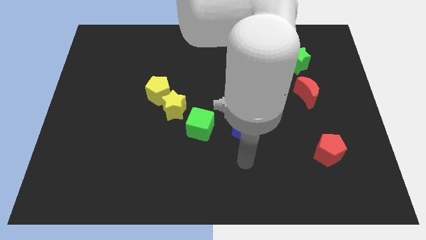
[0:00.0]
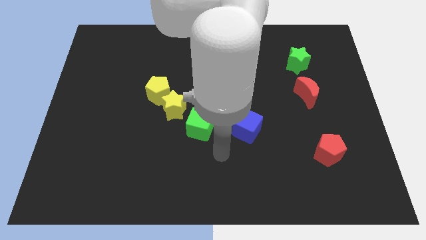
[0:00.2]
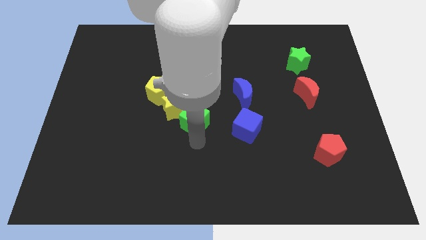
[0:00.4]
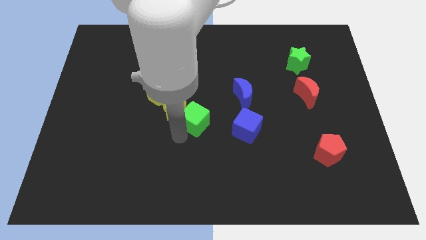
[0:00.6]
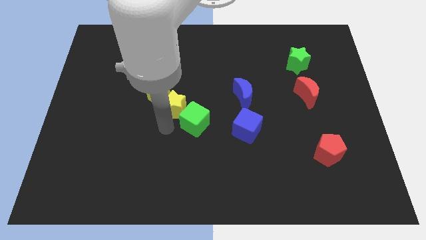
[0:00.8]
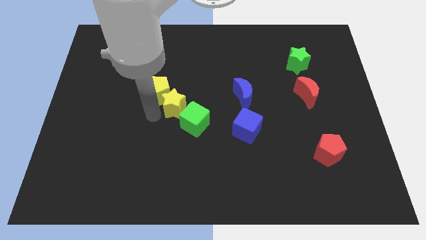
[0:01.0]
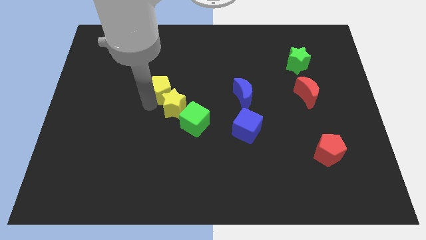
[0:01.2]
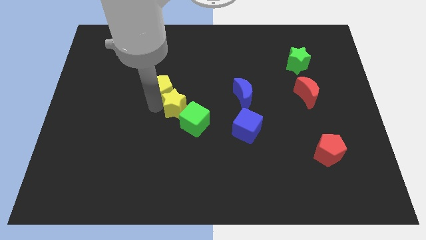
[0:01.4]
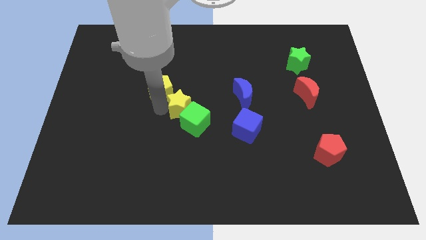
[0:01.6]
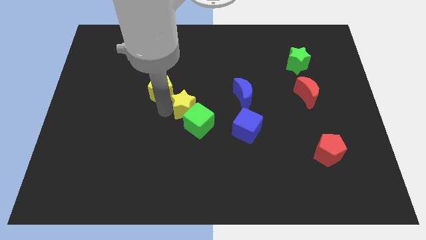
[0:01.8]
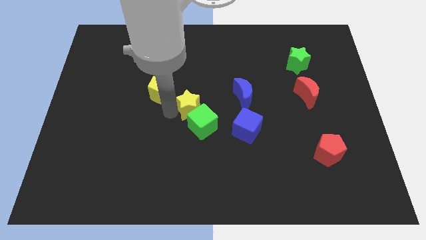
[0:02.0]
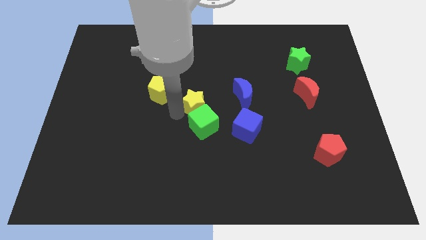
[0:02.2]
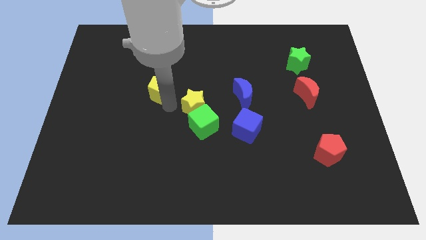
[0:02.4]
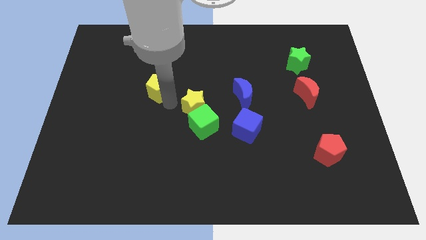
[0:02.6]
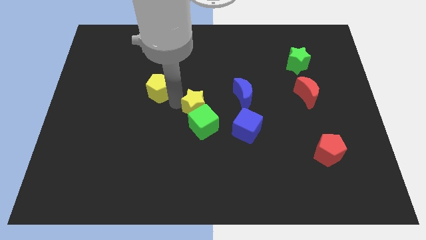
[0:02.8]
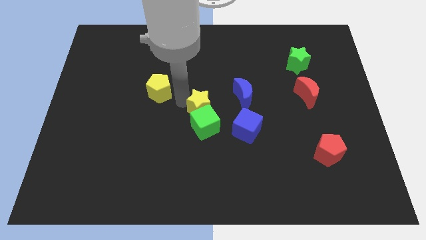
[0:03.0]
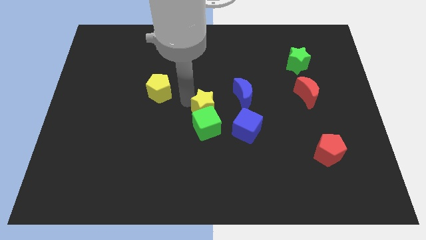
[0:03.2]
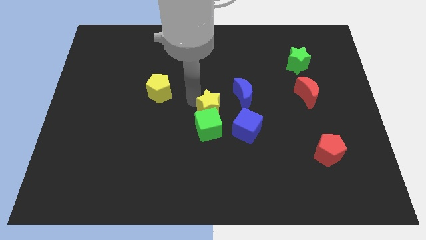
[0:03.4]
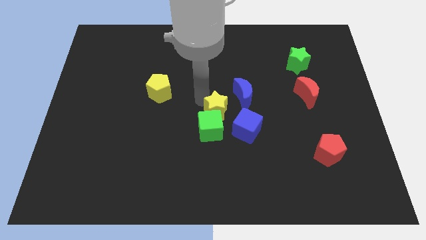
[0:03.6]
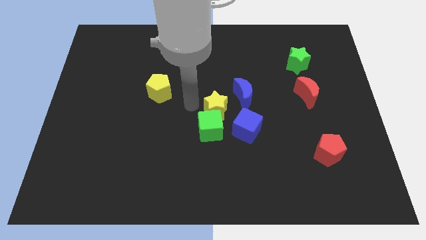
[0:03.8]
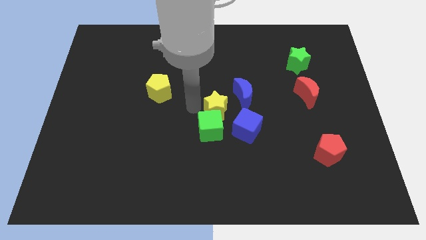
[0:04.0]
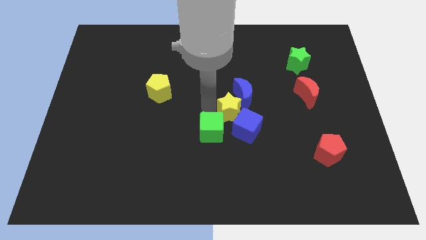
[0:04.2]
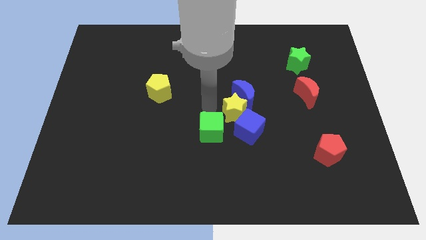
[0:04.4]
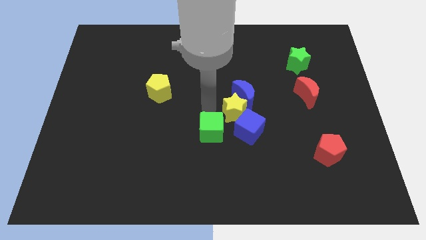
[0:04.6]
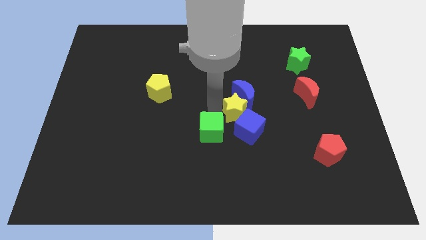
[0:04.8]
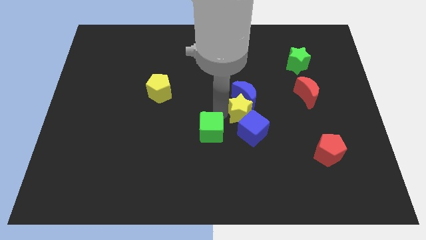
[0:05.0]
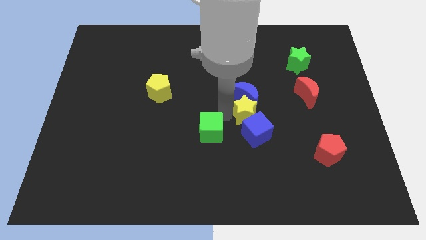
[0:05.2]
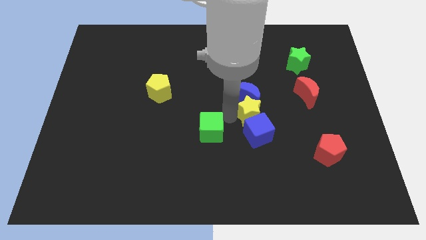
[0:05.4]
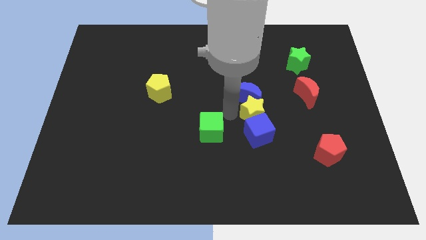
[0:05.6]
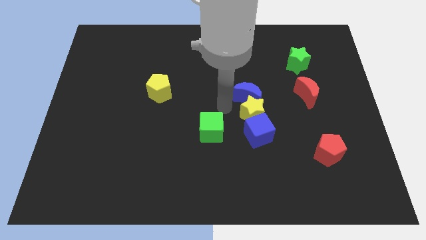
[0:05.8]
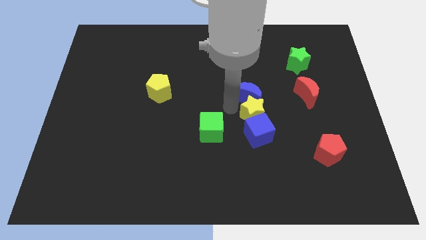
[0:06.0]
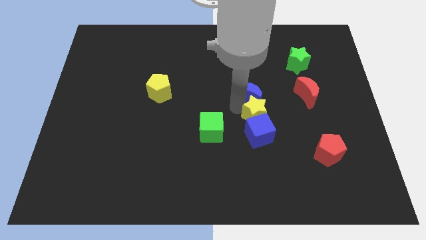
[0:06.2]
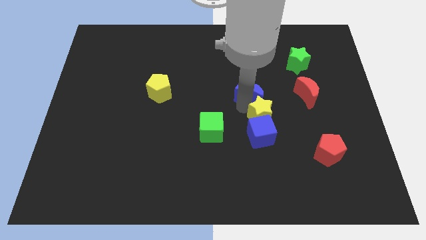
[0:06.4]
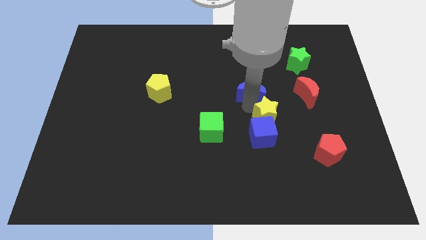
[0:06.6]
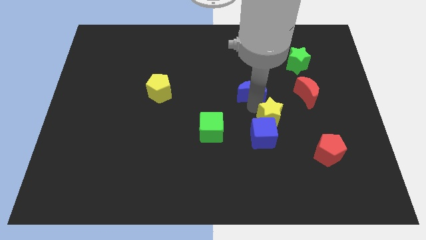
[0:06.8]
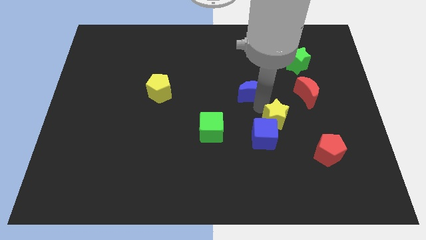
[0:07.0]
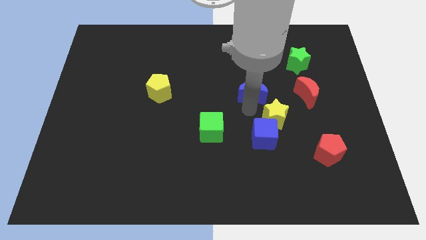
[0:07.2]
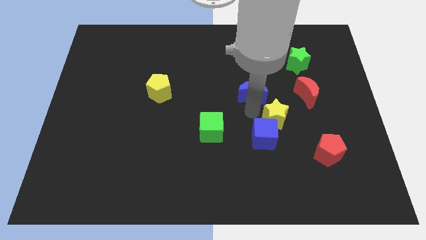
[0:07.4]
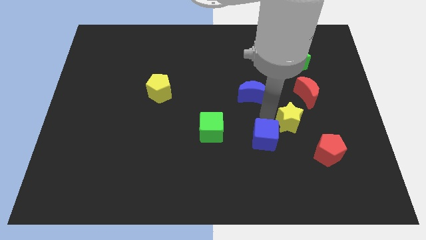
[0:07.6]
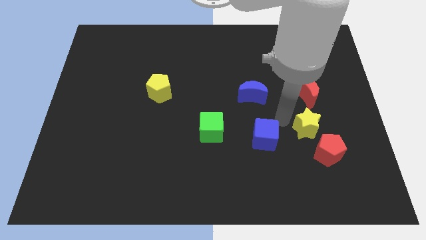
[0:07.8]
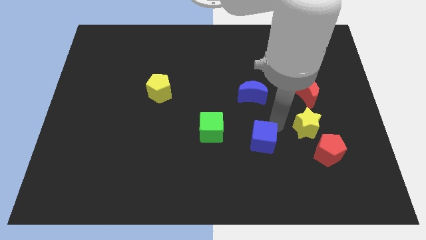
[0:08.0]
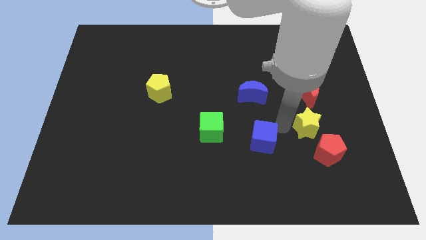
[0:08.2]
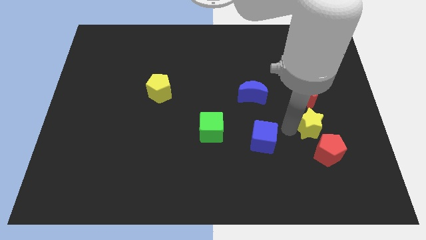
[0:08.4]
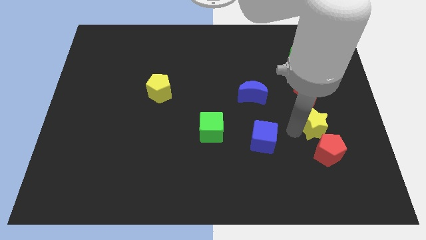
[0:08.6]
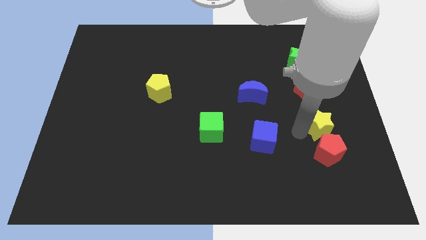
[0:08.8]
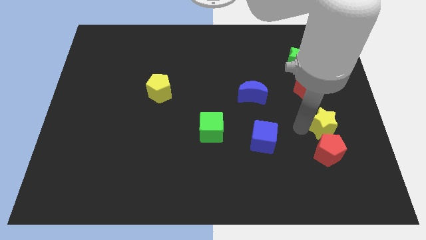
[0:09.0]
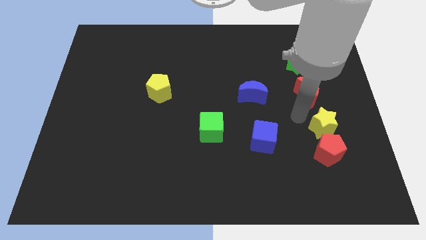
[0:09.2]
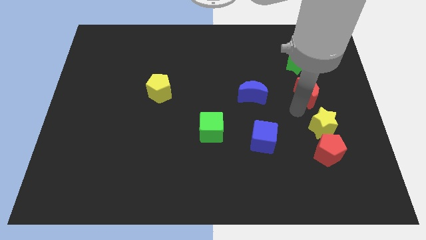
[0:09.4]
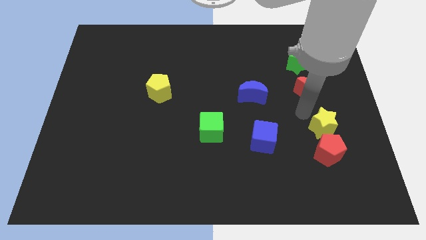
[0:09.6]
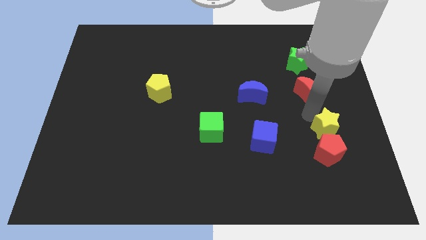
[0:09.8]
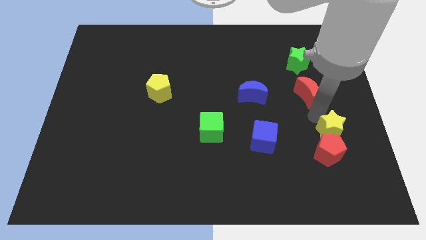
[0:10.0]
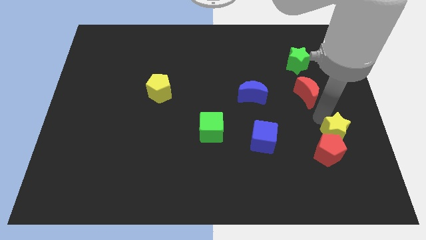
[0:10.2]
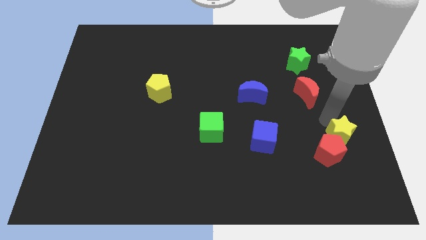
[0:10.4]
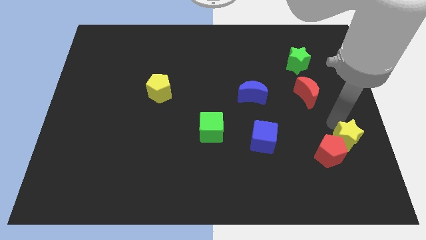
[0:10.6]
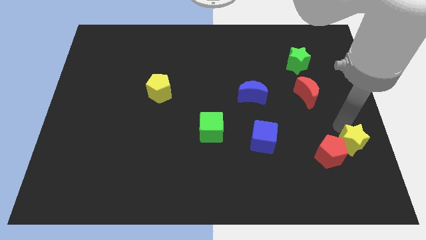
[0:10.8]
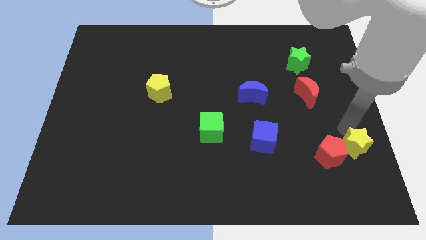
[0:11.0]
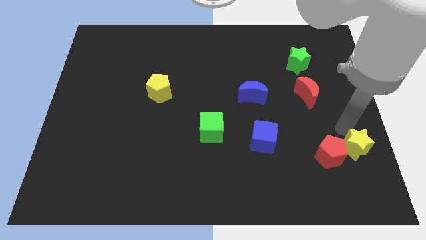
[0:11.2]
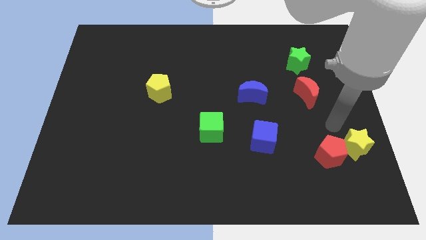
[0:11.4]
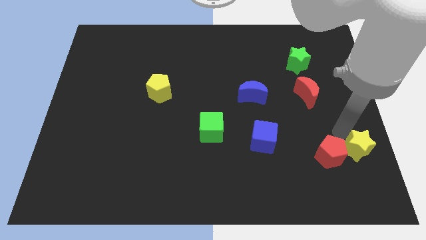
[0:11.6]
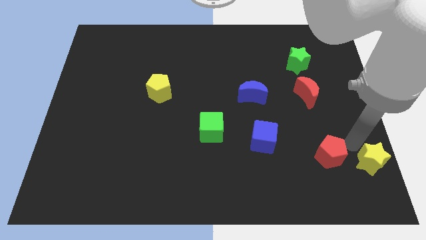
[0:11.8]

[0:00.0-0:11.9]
push the yellow star to the lower right corner

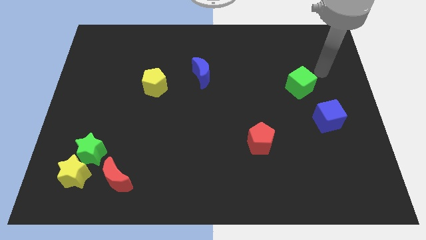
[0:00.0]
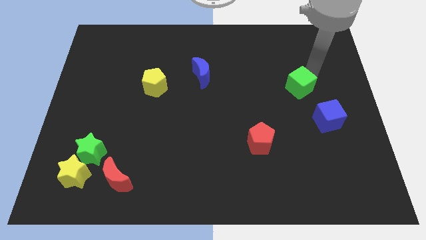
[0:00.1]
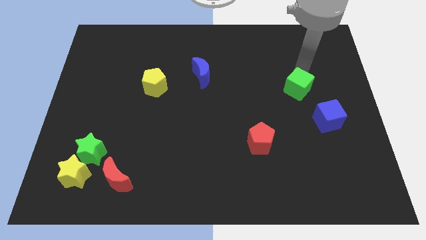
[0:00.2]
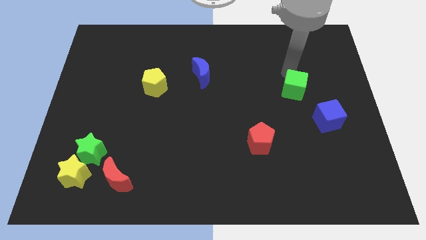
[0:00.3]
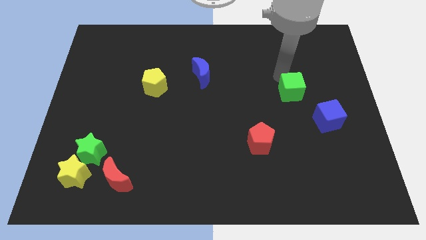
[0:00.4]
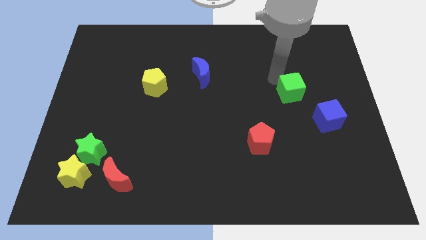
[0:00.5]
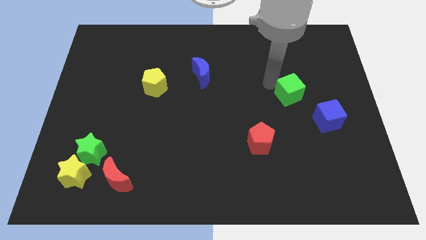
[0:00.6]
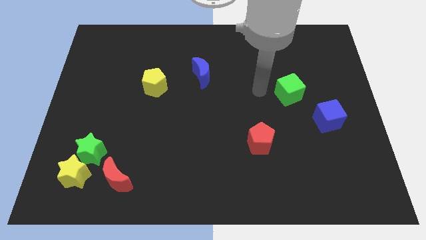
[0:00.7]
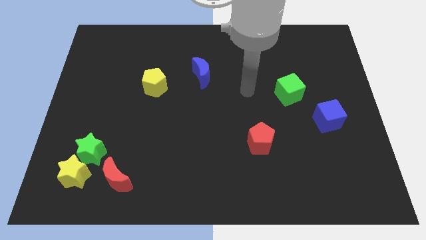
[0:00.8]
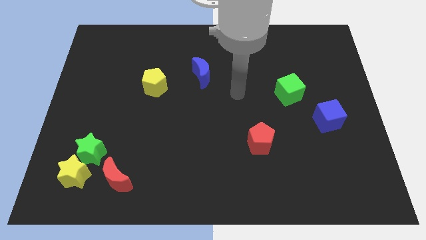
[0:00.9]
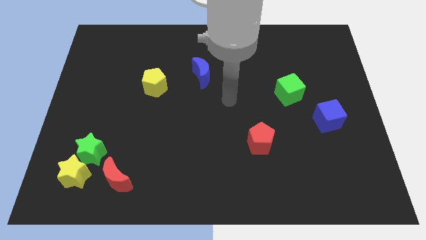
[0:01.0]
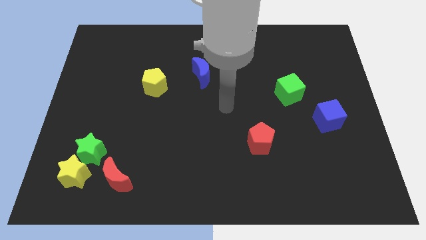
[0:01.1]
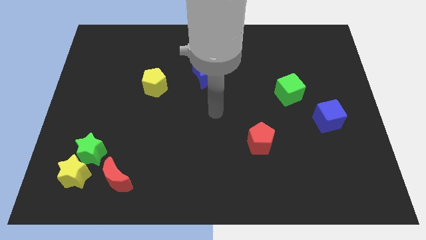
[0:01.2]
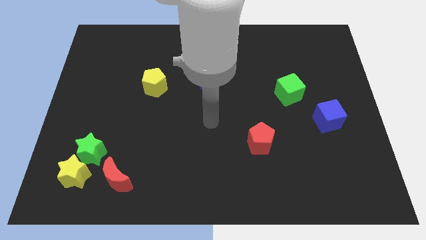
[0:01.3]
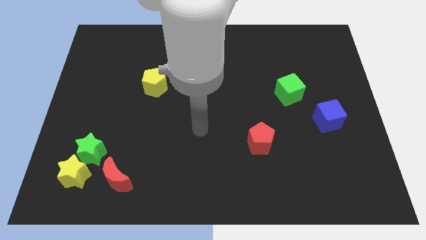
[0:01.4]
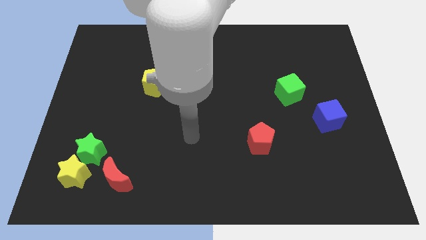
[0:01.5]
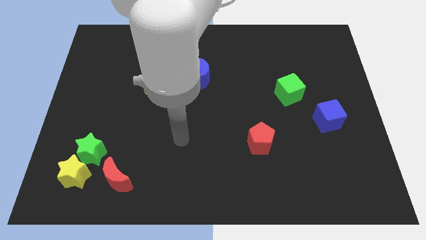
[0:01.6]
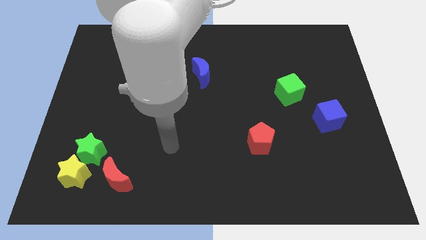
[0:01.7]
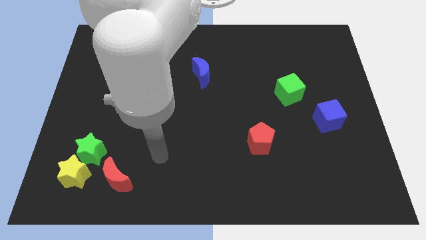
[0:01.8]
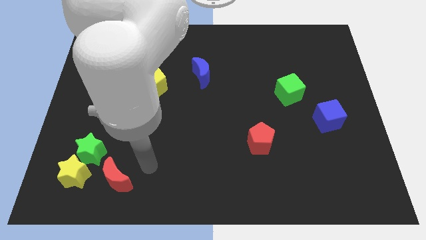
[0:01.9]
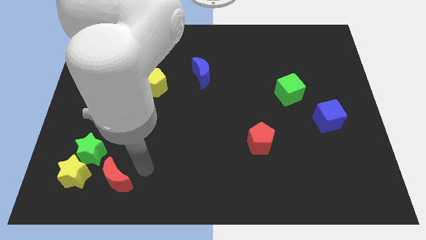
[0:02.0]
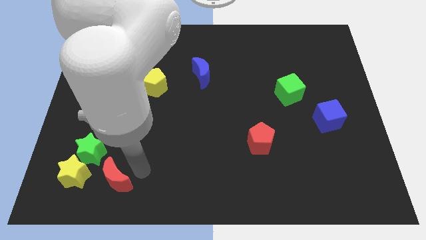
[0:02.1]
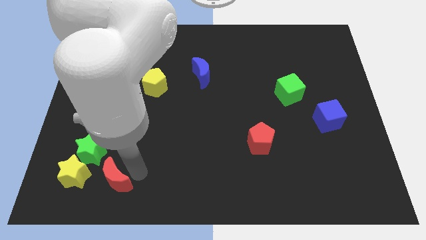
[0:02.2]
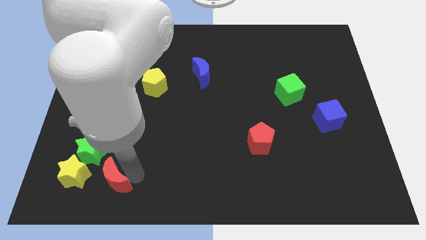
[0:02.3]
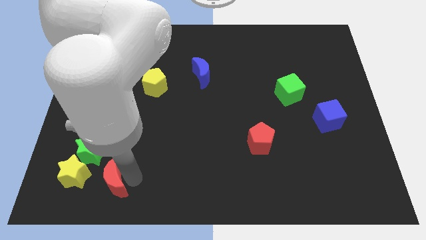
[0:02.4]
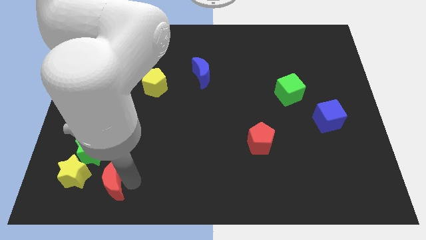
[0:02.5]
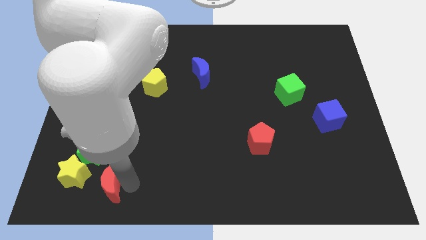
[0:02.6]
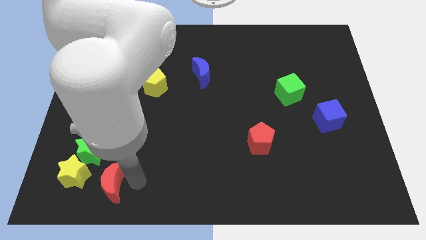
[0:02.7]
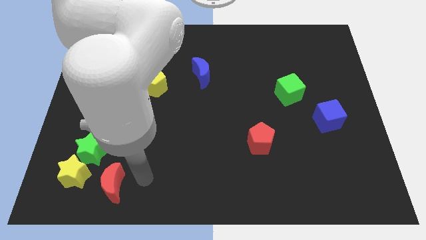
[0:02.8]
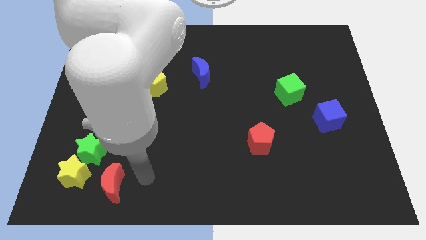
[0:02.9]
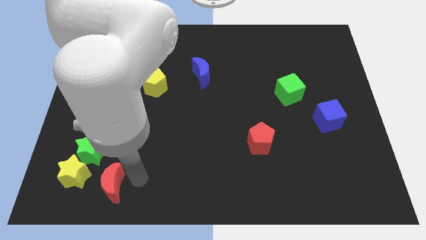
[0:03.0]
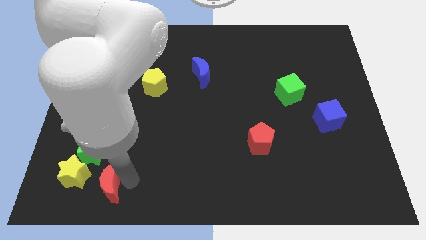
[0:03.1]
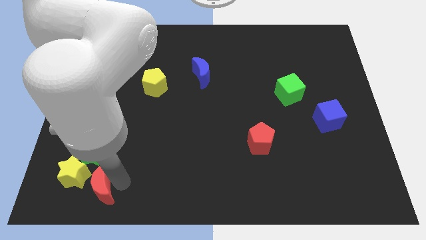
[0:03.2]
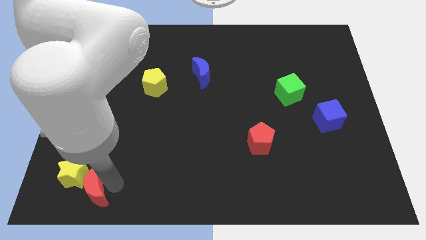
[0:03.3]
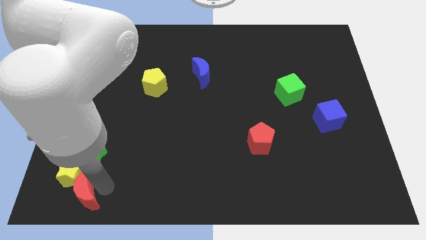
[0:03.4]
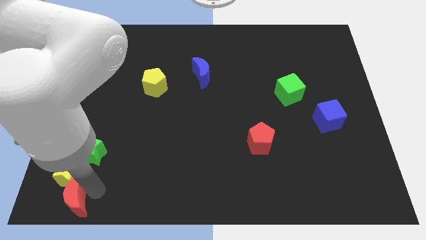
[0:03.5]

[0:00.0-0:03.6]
push the red moon to the lower left corner
